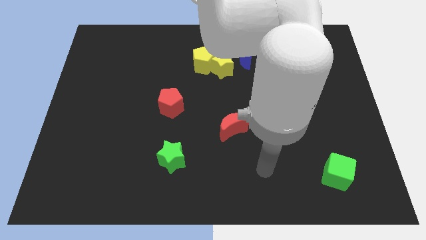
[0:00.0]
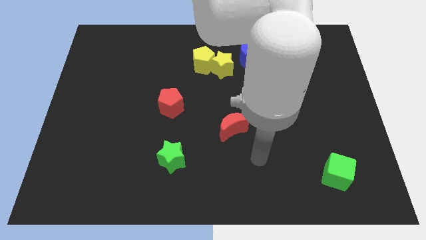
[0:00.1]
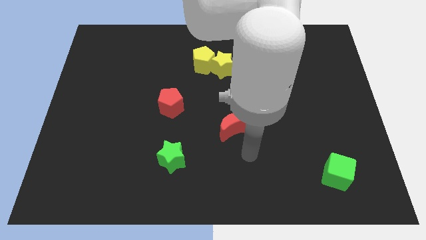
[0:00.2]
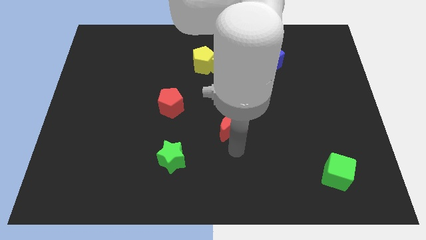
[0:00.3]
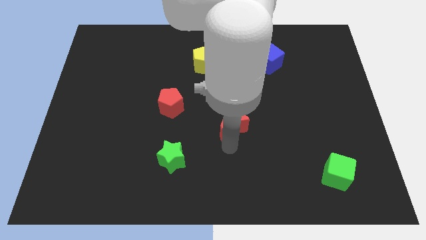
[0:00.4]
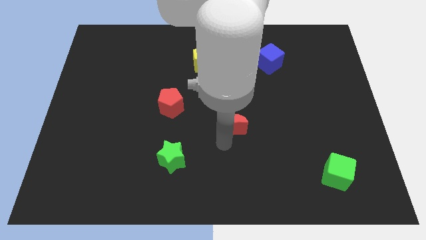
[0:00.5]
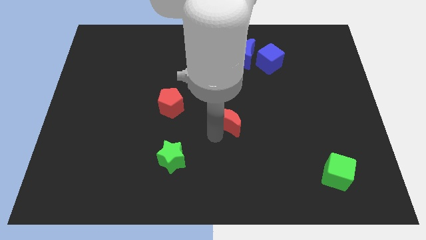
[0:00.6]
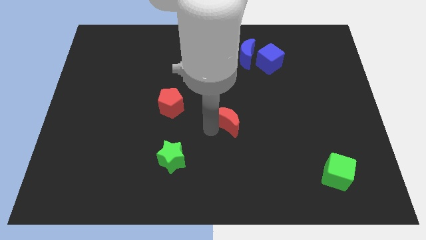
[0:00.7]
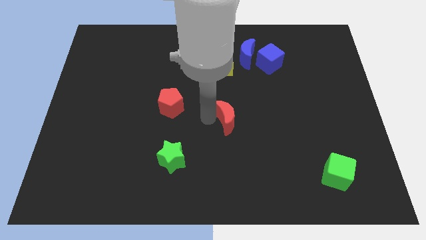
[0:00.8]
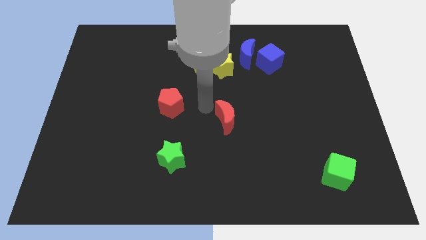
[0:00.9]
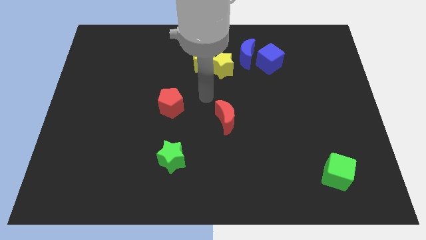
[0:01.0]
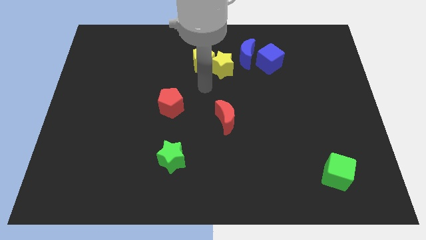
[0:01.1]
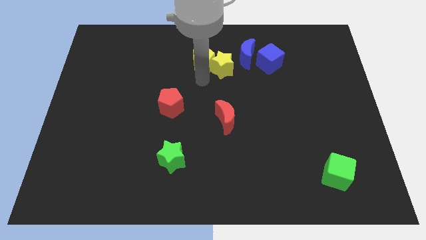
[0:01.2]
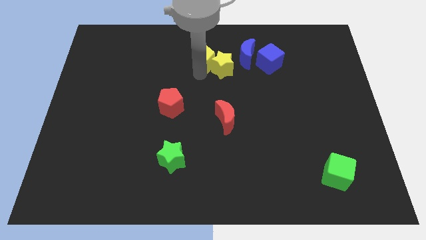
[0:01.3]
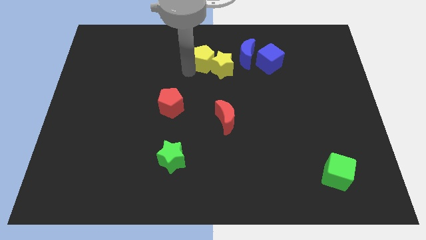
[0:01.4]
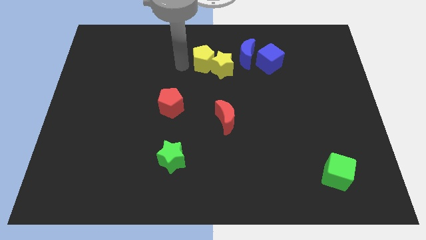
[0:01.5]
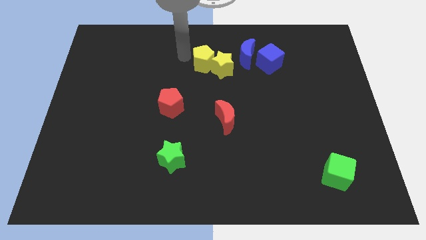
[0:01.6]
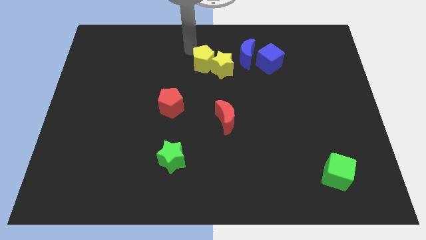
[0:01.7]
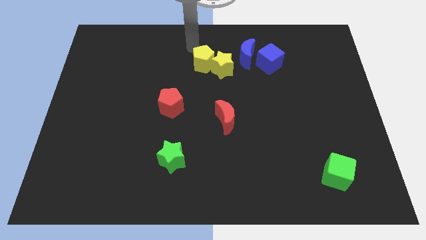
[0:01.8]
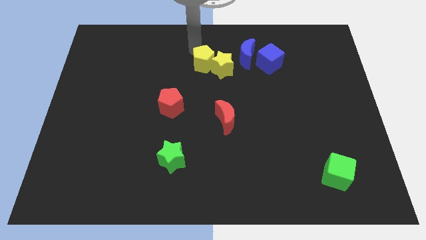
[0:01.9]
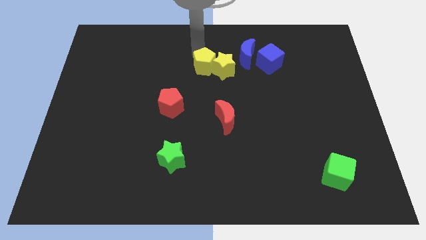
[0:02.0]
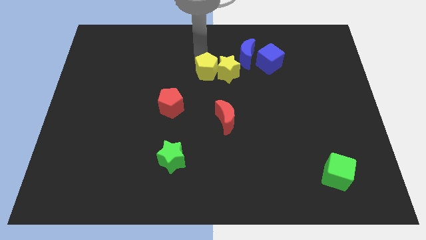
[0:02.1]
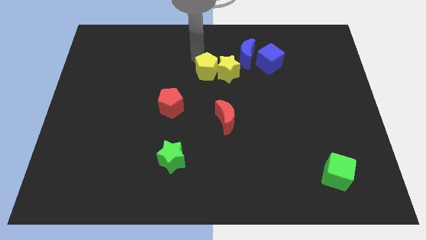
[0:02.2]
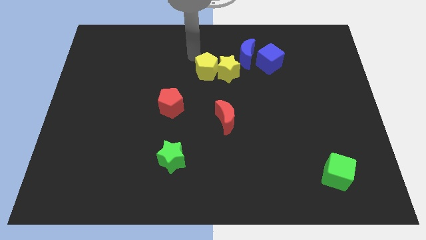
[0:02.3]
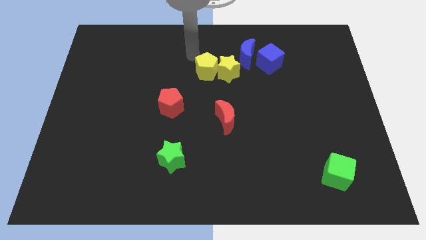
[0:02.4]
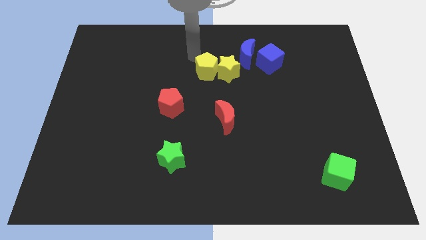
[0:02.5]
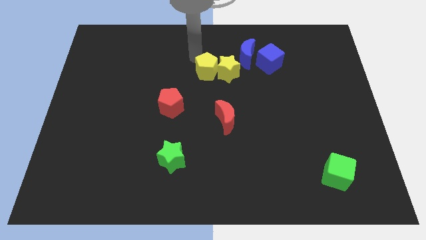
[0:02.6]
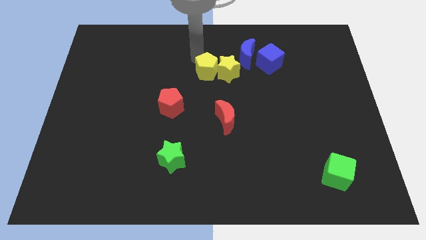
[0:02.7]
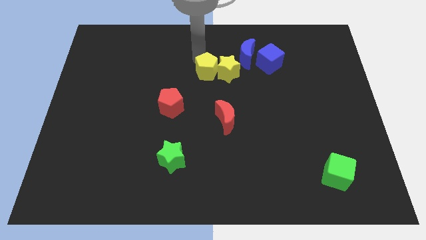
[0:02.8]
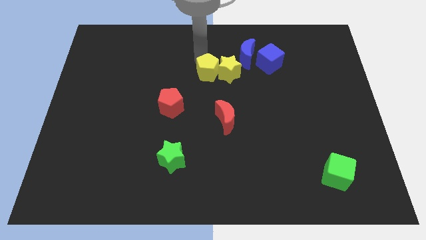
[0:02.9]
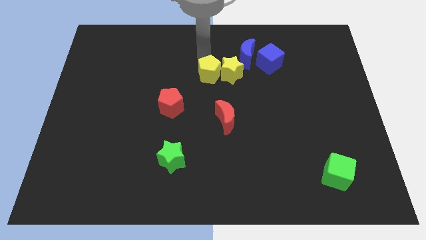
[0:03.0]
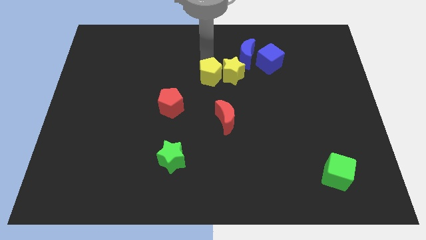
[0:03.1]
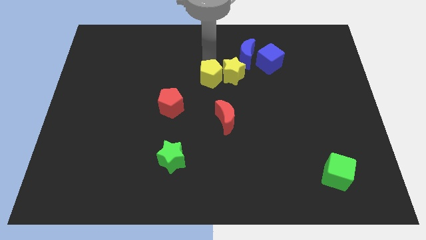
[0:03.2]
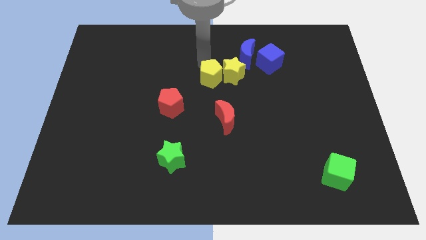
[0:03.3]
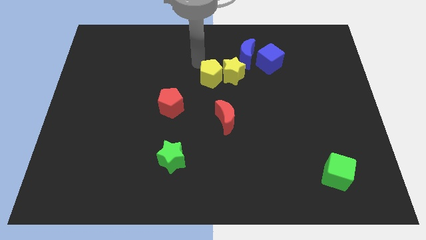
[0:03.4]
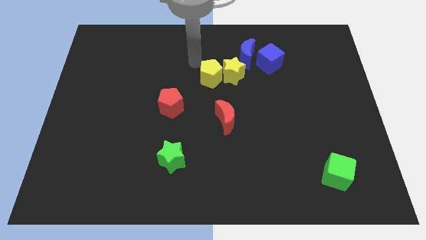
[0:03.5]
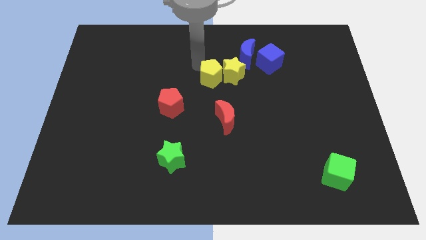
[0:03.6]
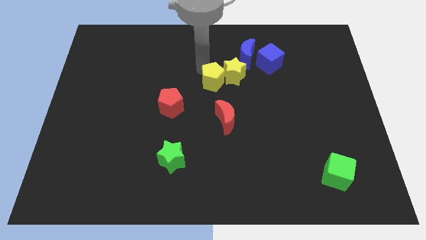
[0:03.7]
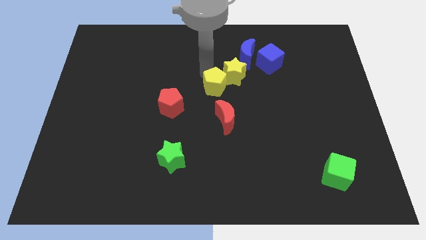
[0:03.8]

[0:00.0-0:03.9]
push the yellow pentagon diagonally down and right a bit

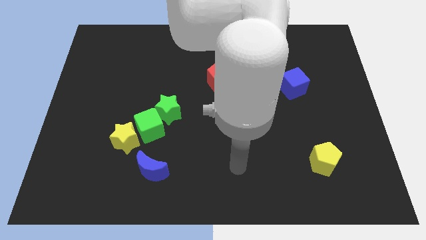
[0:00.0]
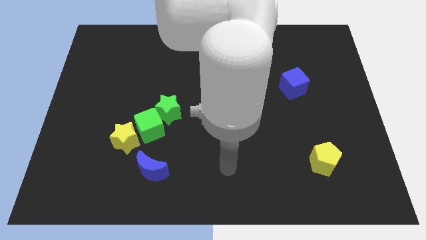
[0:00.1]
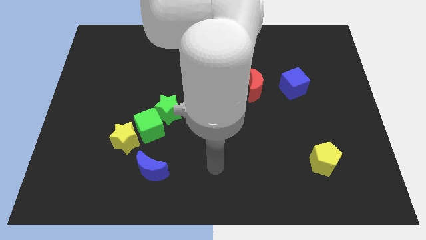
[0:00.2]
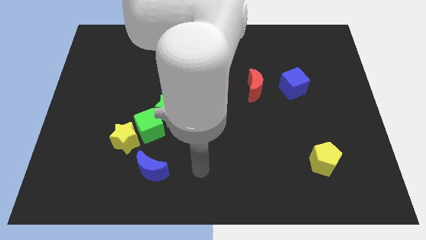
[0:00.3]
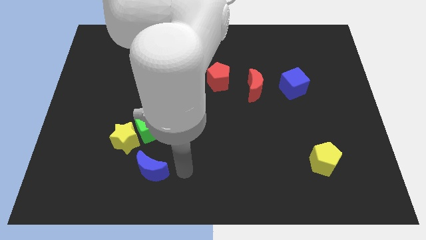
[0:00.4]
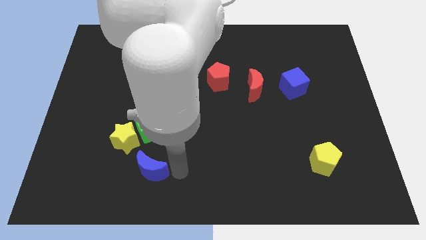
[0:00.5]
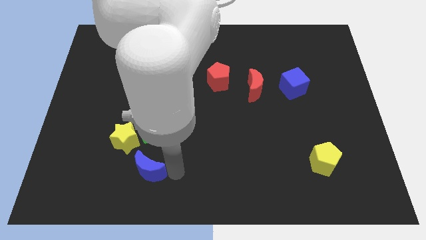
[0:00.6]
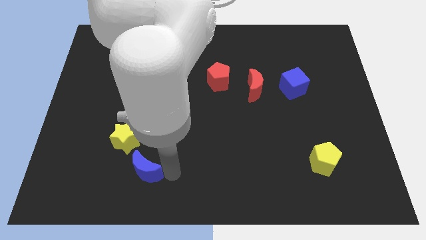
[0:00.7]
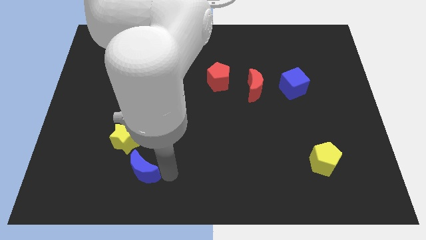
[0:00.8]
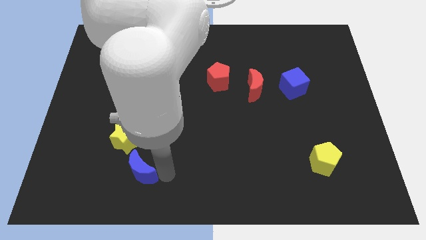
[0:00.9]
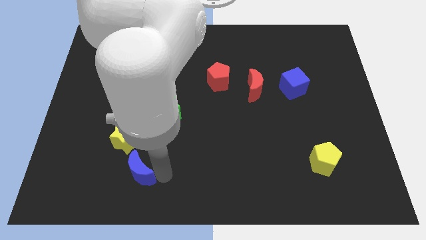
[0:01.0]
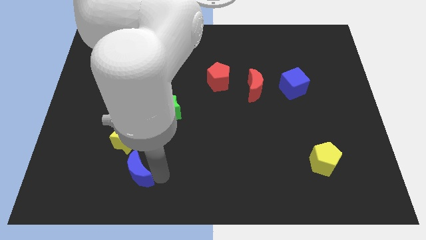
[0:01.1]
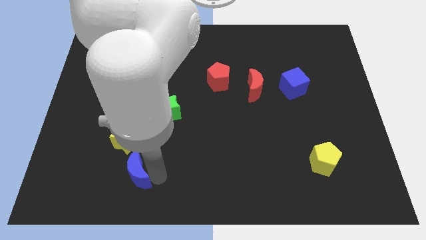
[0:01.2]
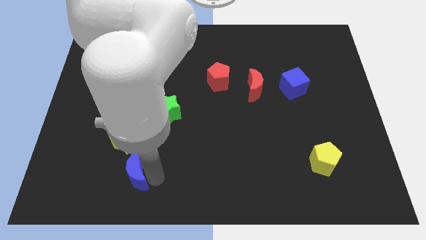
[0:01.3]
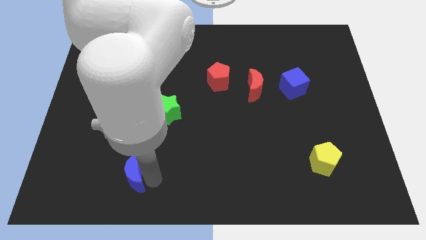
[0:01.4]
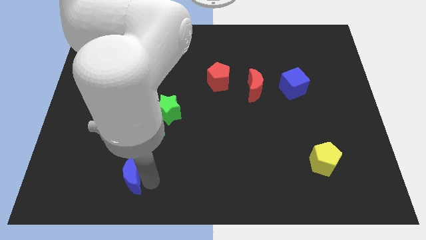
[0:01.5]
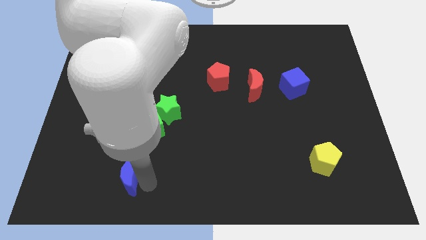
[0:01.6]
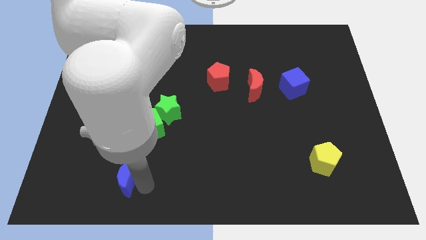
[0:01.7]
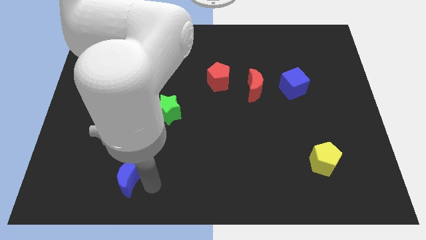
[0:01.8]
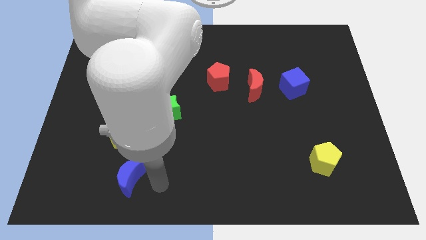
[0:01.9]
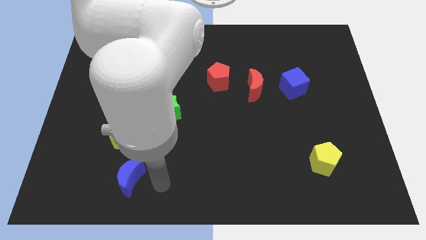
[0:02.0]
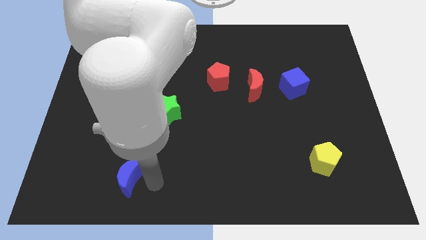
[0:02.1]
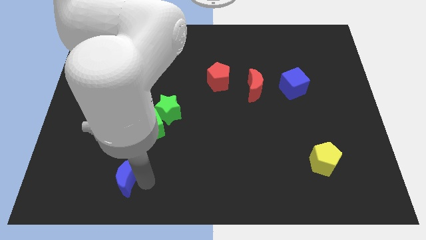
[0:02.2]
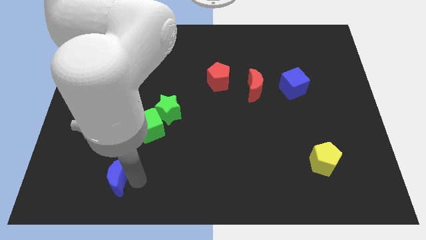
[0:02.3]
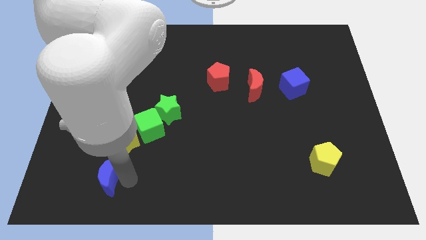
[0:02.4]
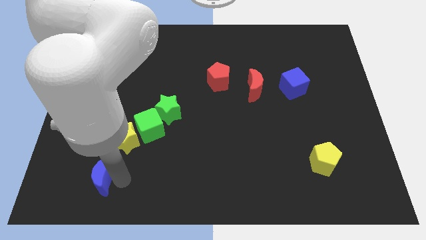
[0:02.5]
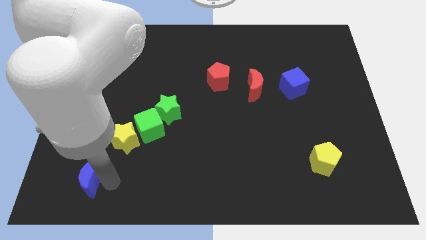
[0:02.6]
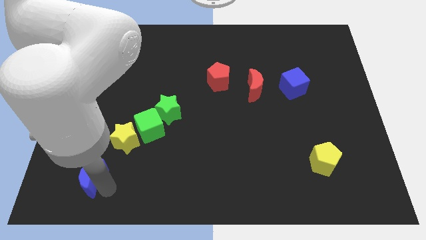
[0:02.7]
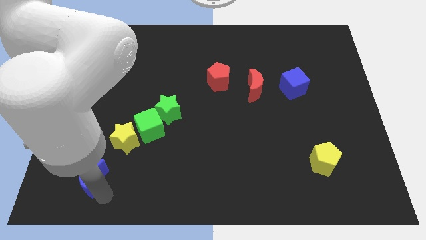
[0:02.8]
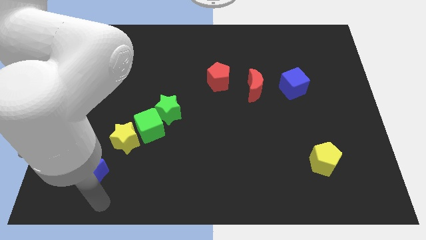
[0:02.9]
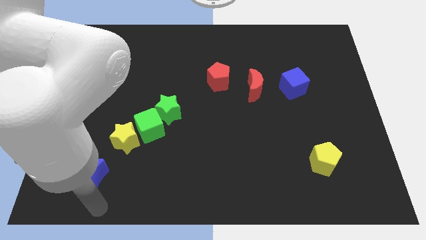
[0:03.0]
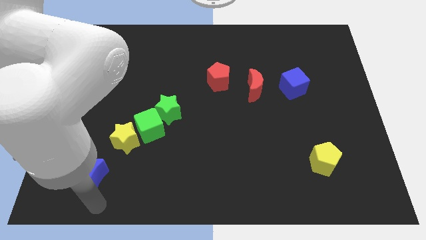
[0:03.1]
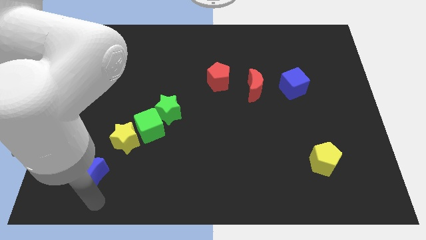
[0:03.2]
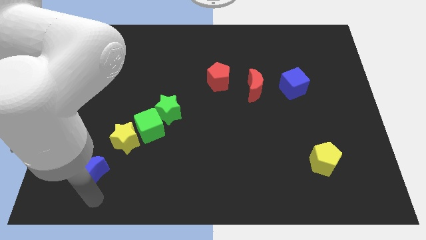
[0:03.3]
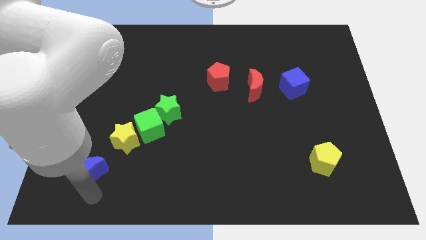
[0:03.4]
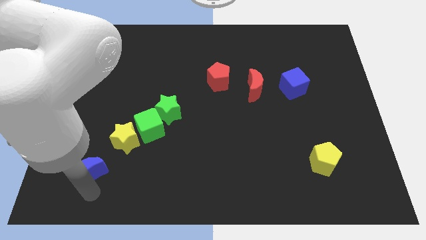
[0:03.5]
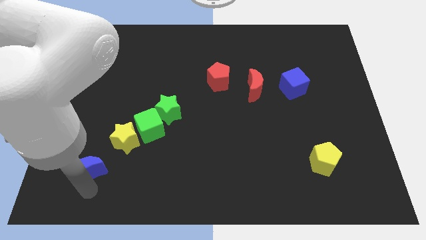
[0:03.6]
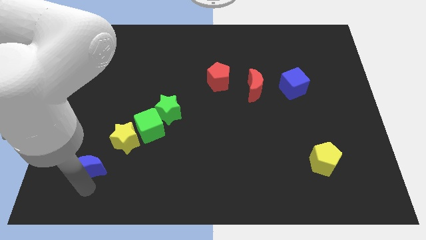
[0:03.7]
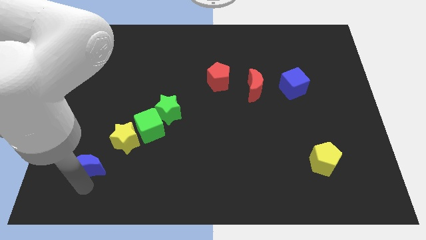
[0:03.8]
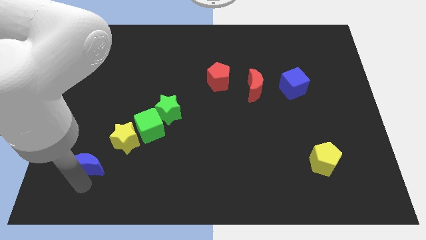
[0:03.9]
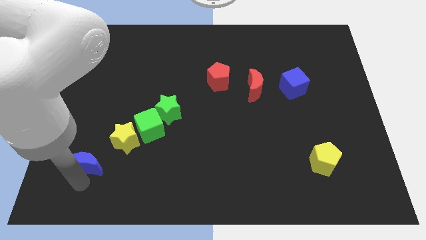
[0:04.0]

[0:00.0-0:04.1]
slide the blue moon upwards and then to the left a little bit
